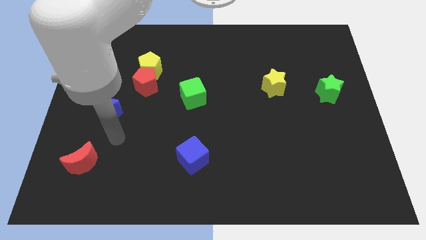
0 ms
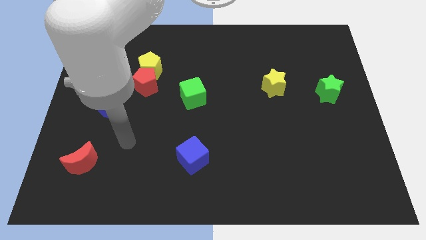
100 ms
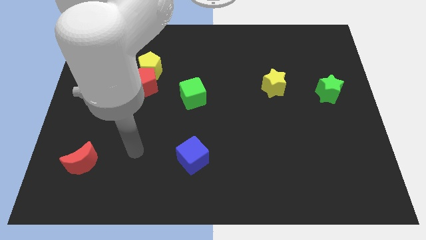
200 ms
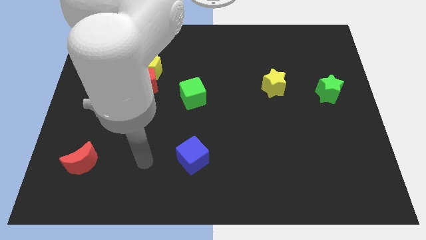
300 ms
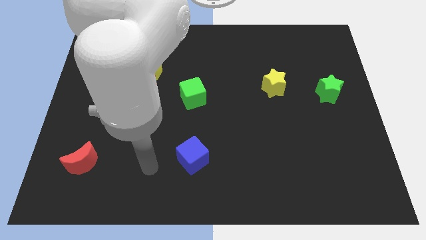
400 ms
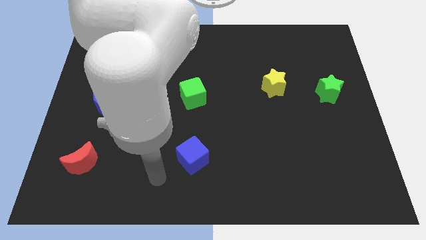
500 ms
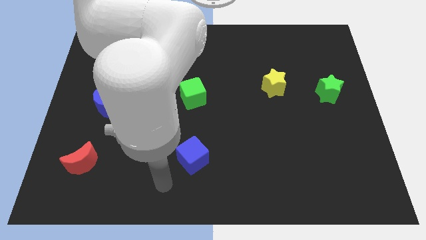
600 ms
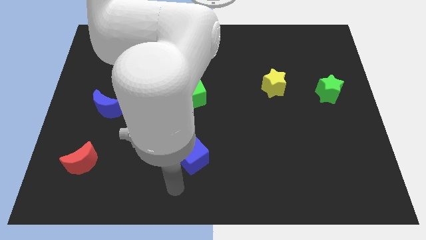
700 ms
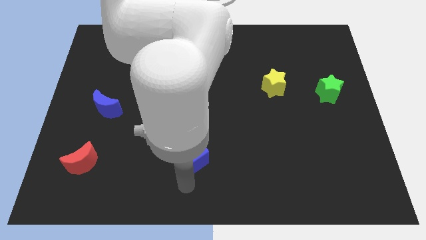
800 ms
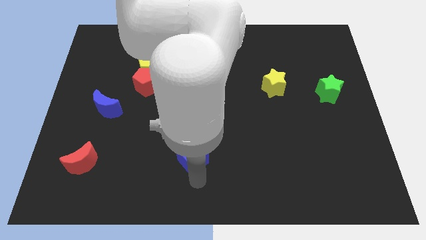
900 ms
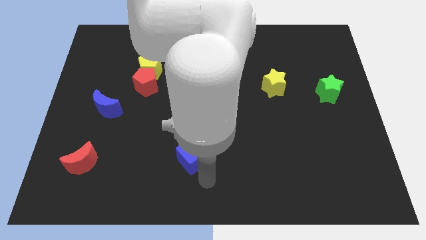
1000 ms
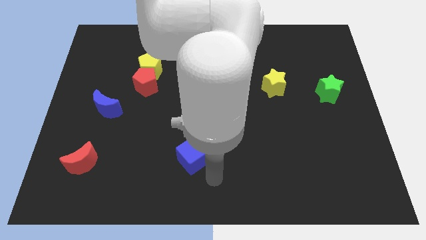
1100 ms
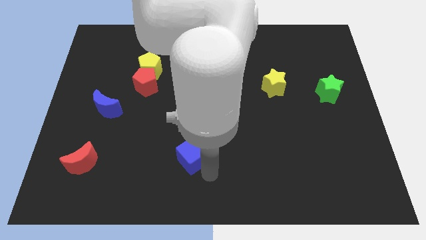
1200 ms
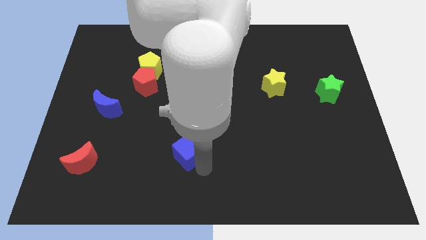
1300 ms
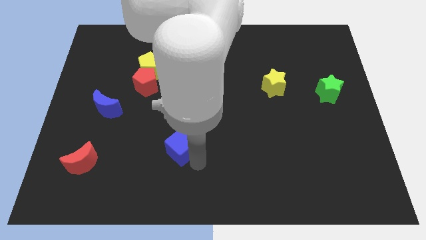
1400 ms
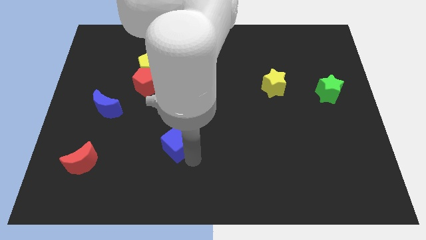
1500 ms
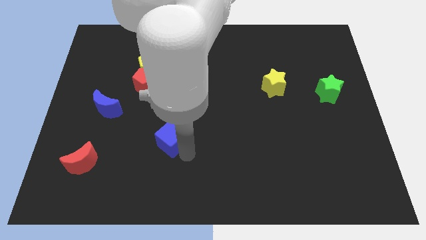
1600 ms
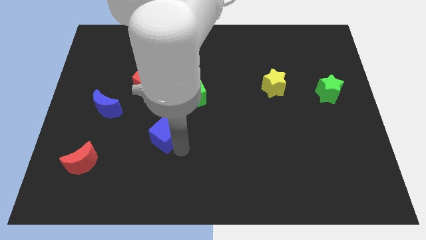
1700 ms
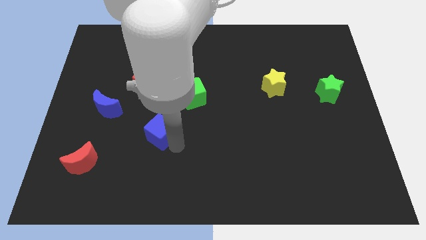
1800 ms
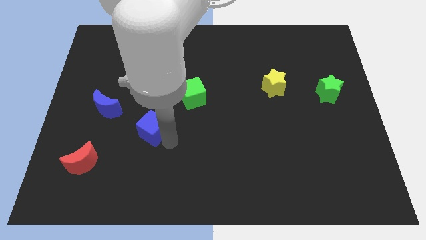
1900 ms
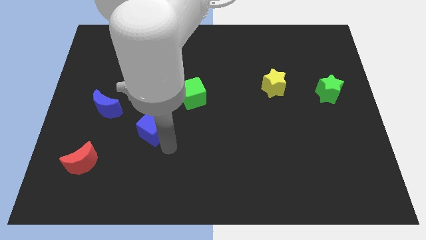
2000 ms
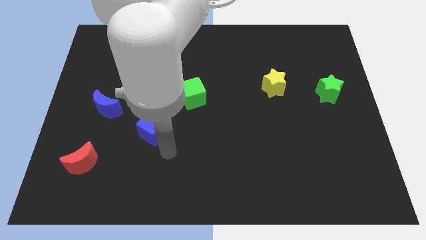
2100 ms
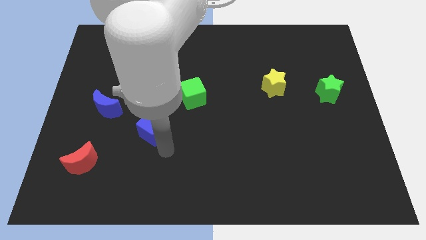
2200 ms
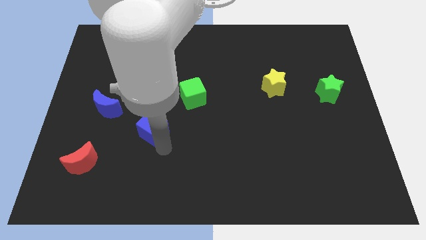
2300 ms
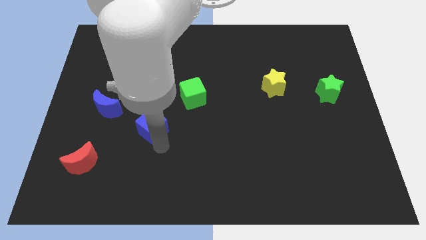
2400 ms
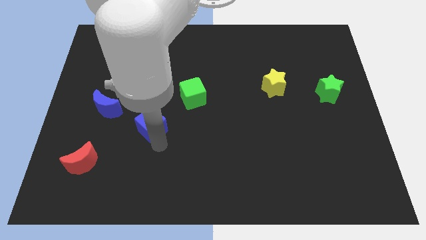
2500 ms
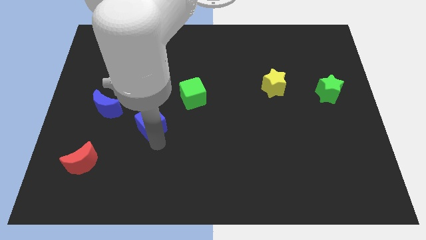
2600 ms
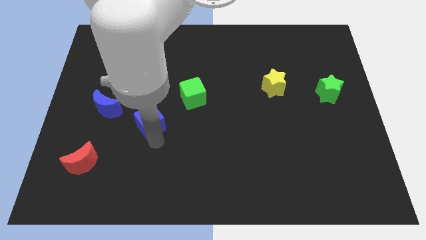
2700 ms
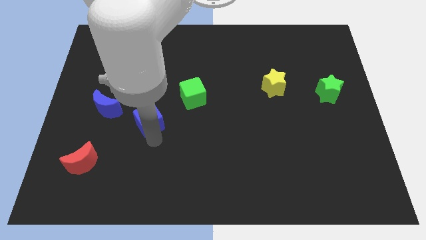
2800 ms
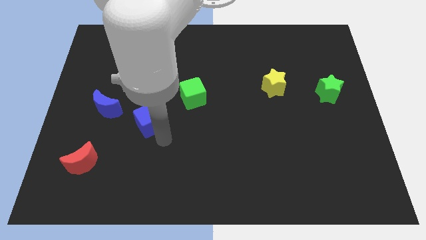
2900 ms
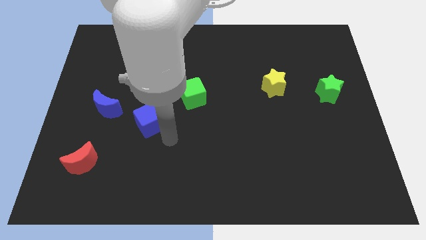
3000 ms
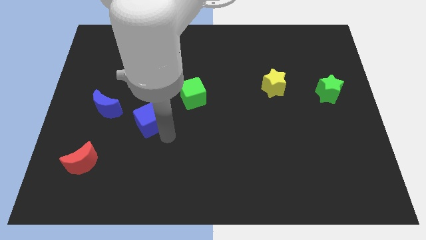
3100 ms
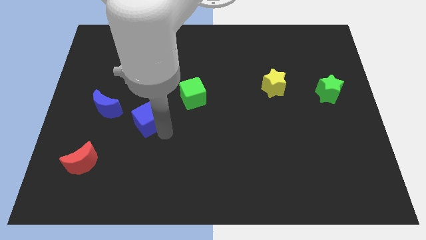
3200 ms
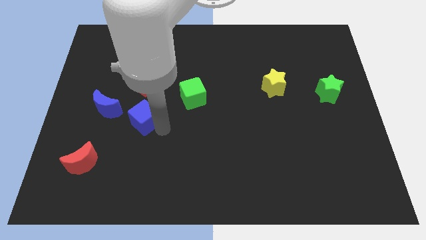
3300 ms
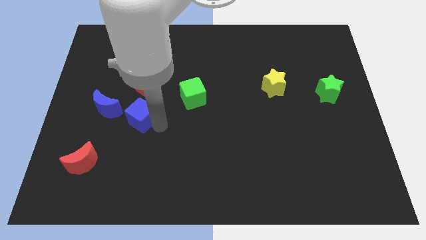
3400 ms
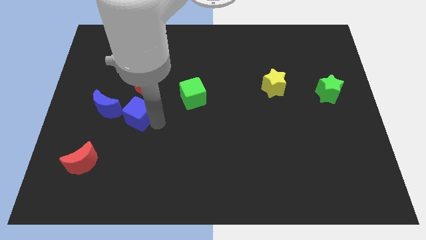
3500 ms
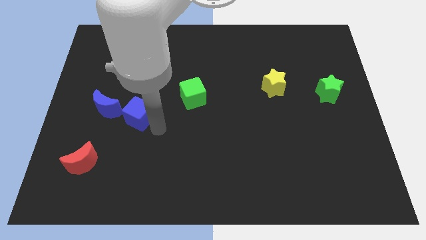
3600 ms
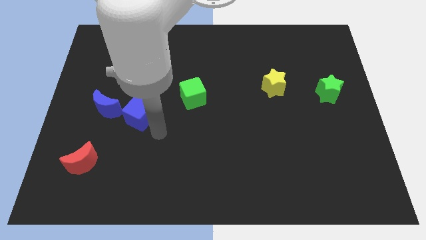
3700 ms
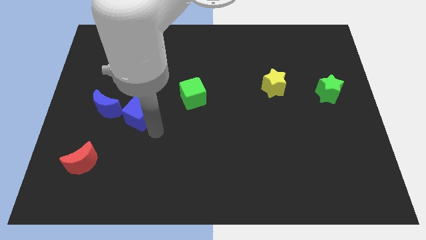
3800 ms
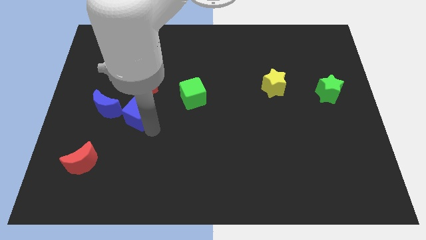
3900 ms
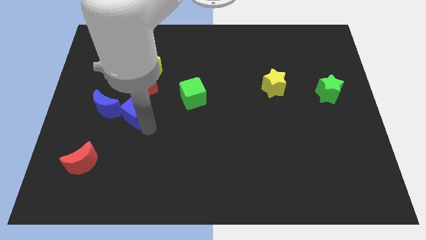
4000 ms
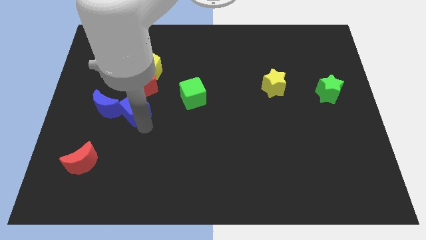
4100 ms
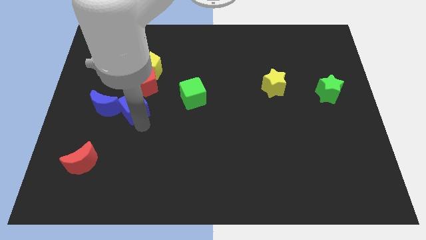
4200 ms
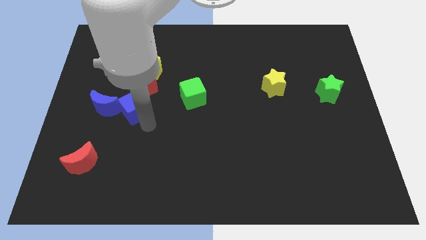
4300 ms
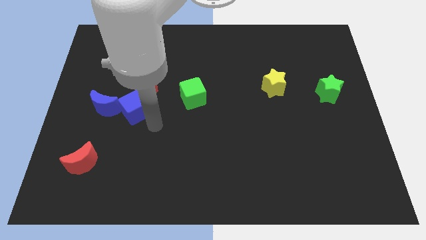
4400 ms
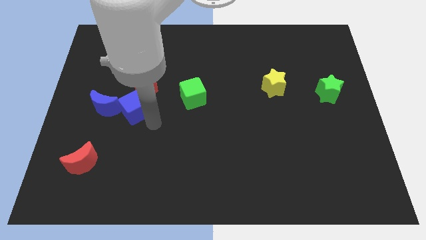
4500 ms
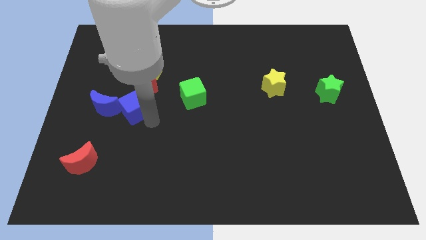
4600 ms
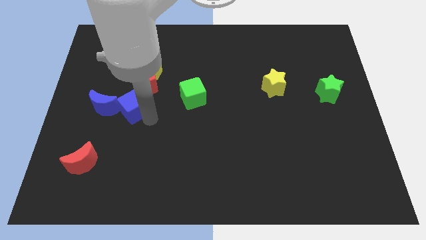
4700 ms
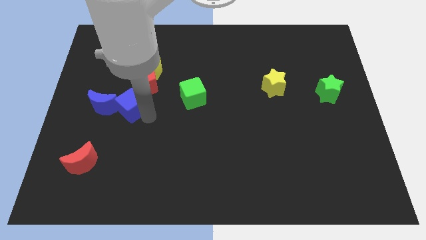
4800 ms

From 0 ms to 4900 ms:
slide the blue cube diagonally upwards and left

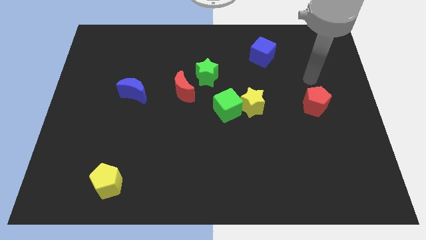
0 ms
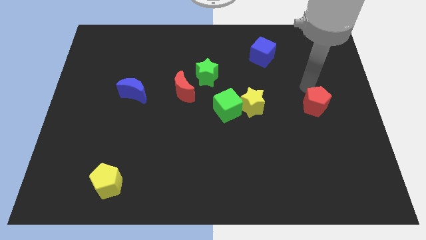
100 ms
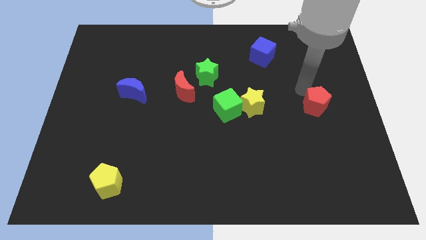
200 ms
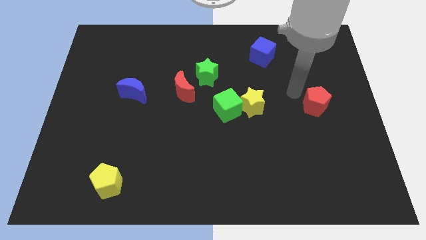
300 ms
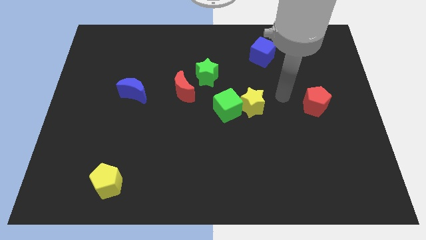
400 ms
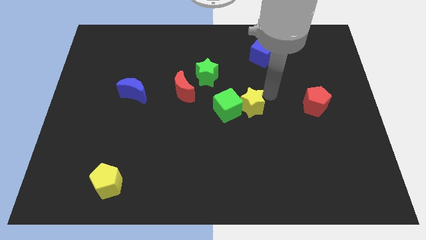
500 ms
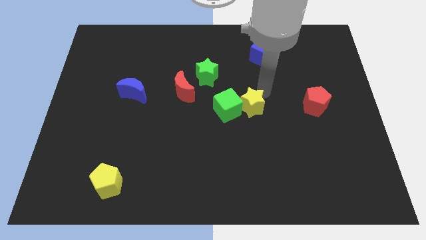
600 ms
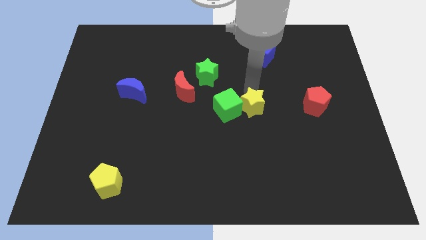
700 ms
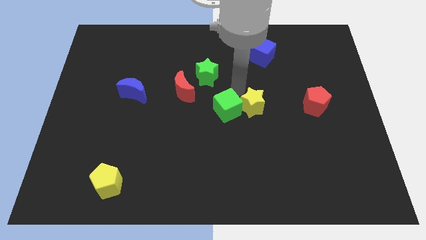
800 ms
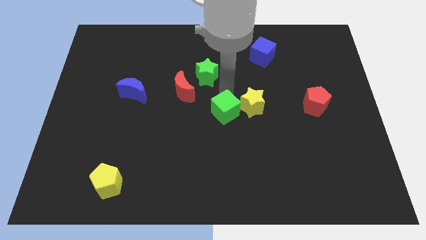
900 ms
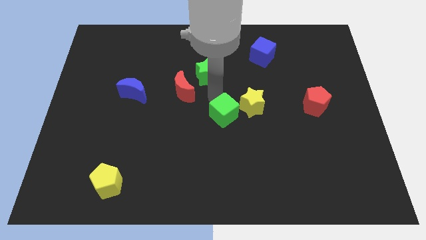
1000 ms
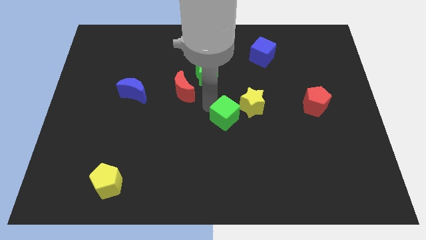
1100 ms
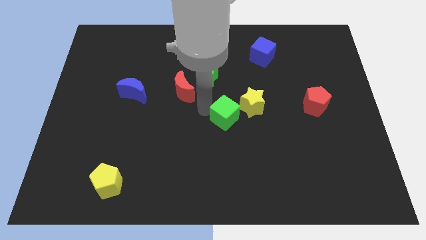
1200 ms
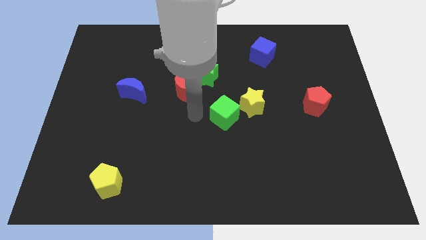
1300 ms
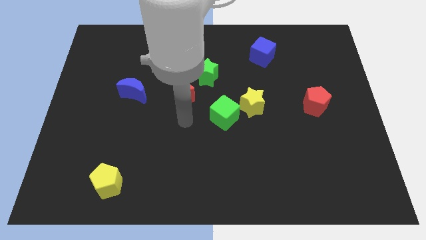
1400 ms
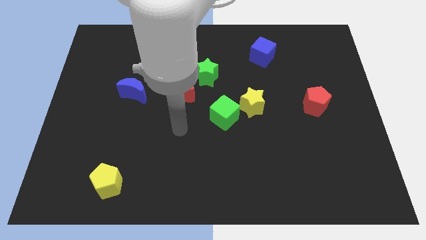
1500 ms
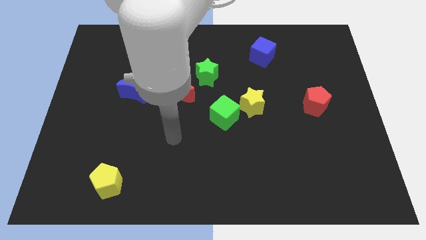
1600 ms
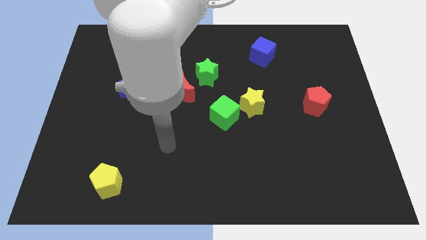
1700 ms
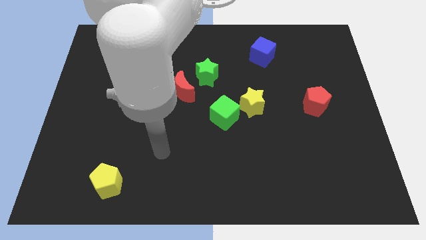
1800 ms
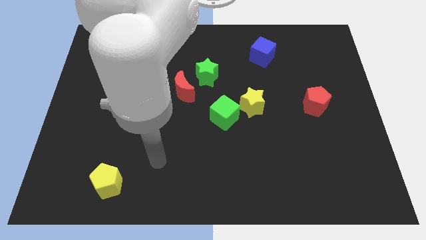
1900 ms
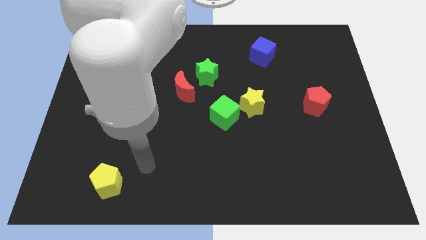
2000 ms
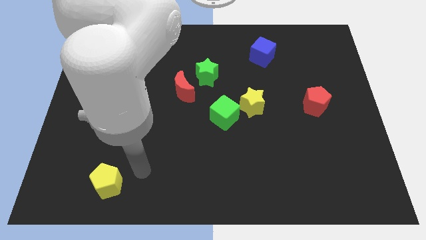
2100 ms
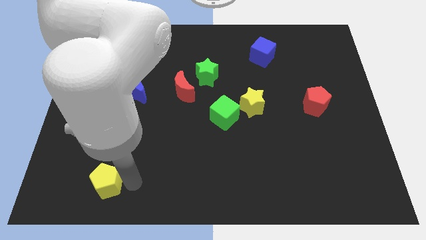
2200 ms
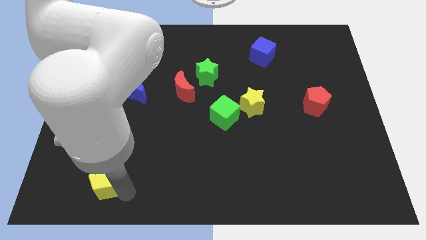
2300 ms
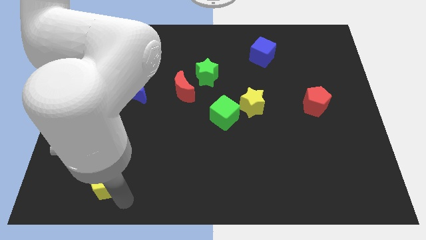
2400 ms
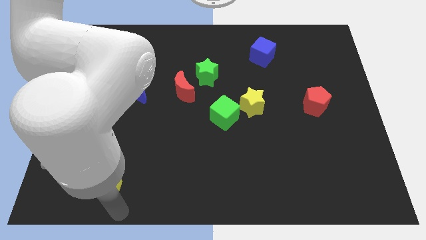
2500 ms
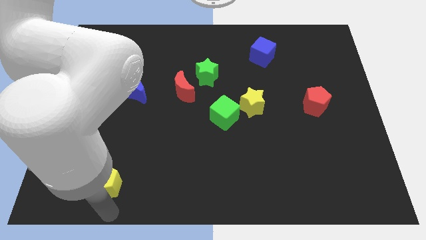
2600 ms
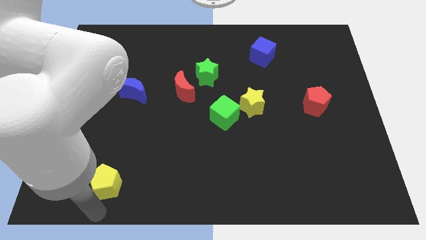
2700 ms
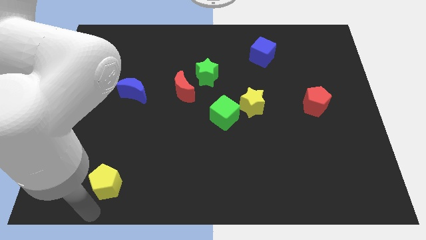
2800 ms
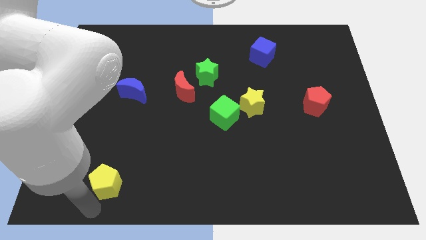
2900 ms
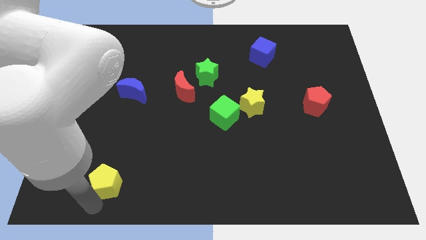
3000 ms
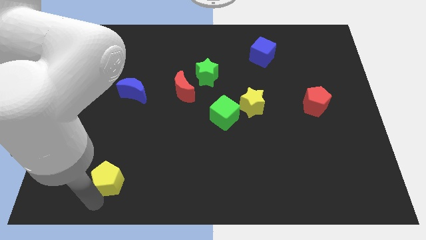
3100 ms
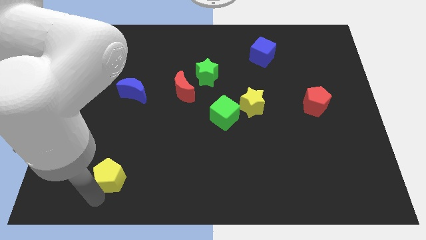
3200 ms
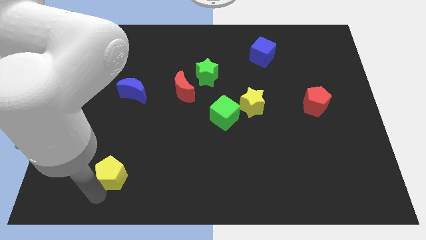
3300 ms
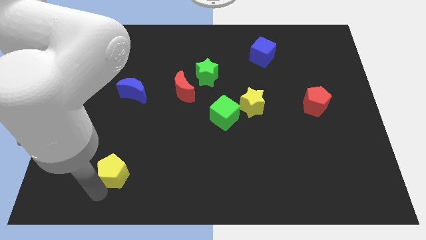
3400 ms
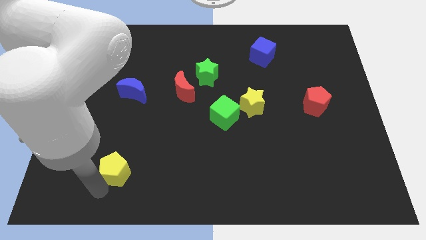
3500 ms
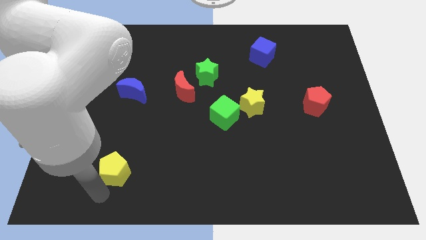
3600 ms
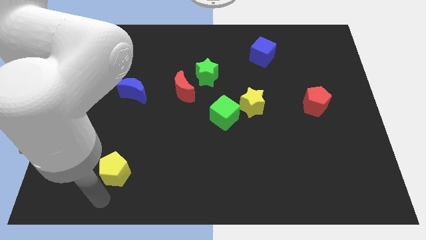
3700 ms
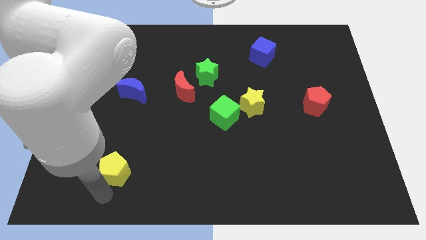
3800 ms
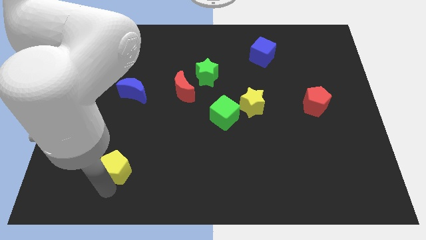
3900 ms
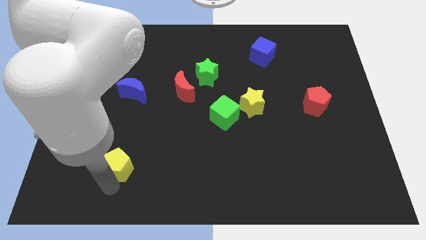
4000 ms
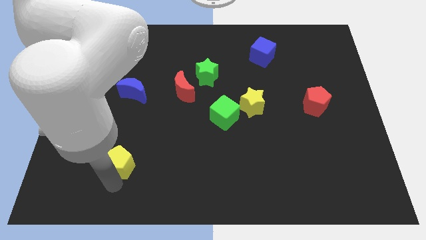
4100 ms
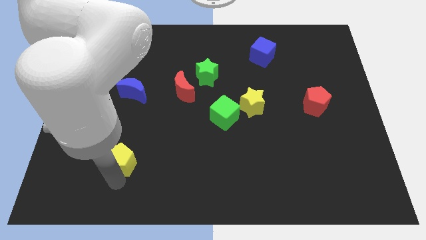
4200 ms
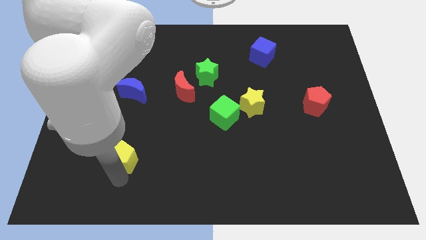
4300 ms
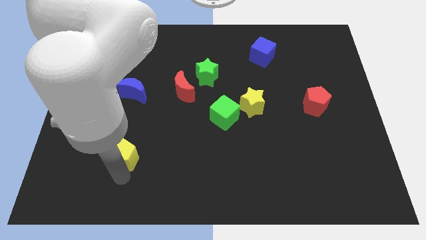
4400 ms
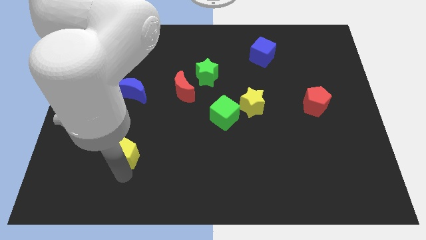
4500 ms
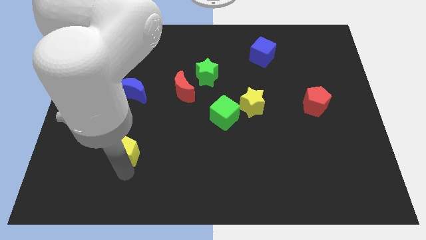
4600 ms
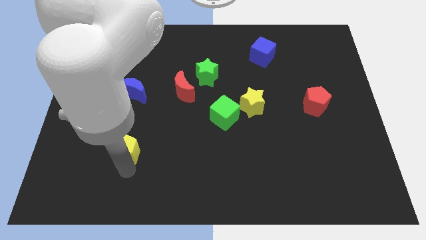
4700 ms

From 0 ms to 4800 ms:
move the yellow pentagon a little bit up
